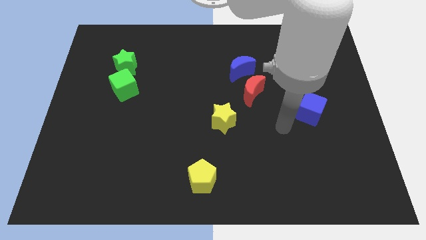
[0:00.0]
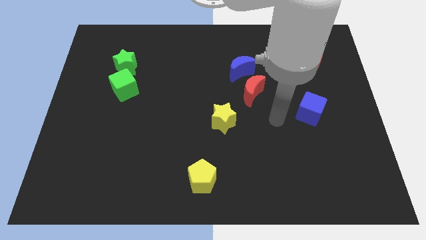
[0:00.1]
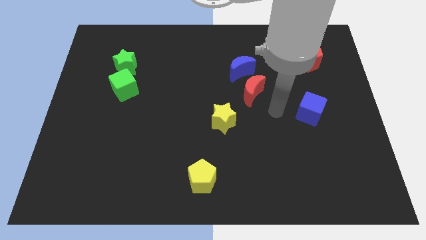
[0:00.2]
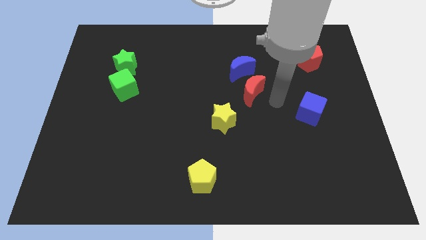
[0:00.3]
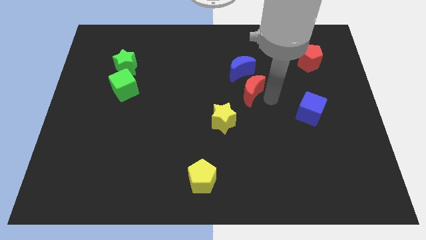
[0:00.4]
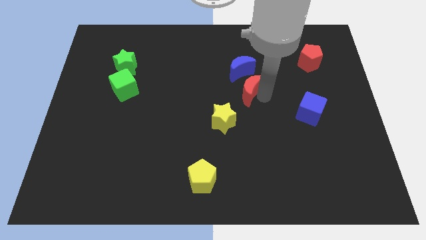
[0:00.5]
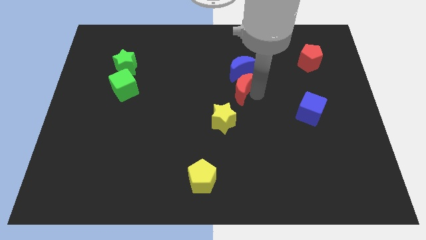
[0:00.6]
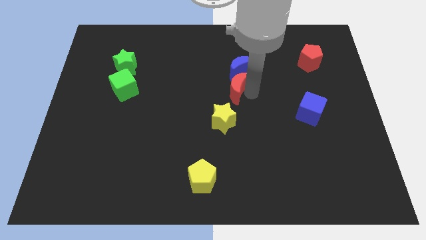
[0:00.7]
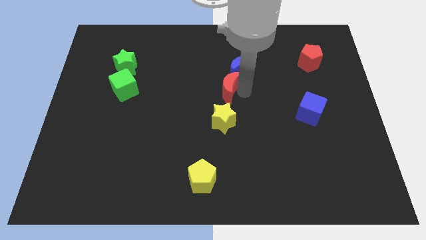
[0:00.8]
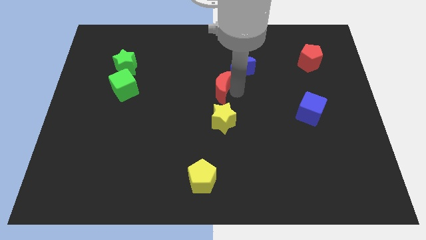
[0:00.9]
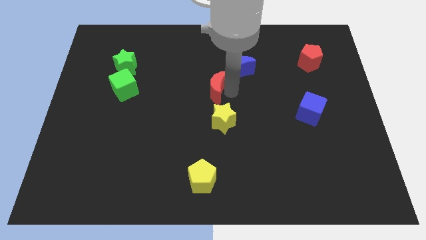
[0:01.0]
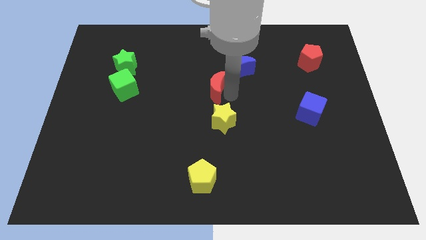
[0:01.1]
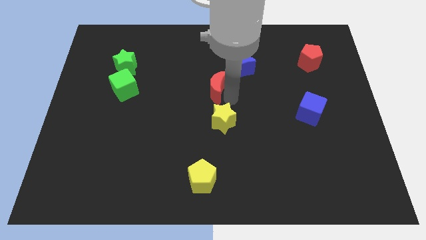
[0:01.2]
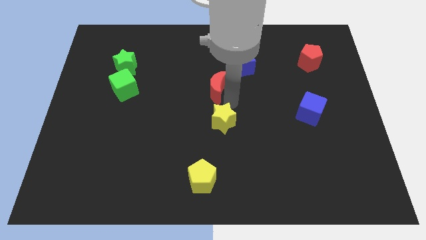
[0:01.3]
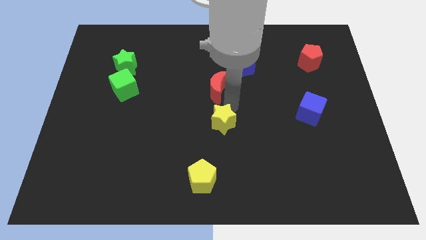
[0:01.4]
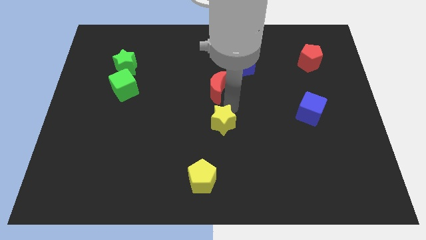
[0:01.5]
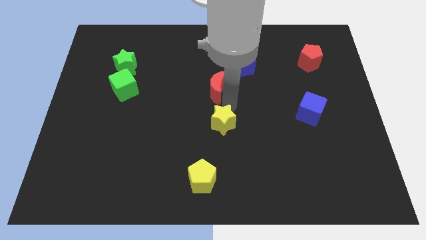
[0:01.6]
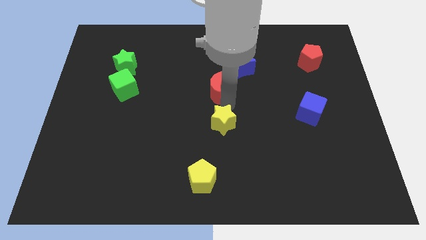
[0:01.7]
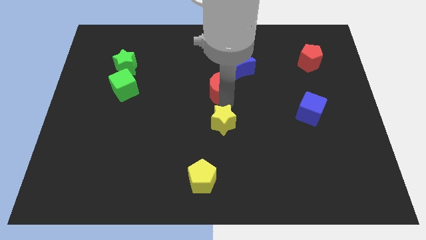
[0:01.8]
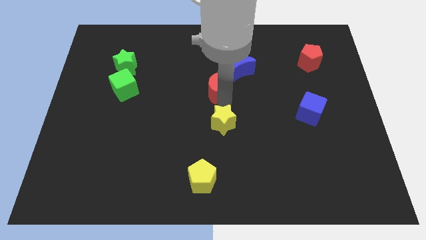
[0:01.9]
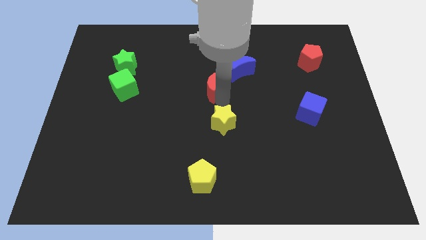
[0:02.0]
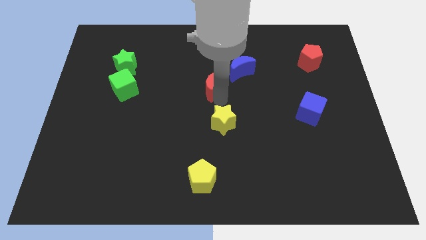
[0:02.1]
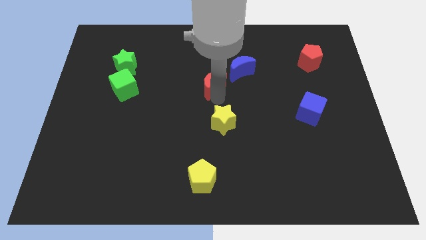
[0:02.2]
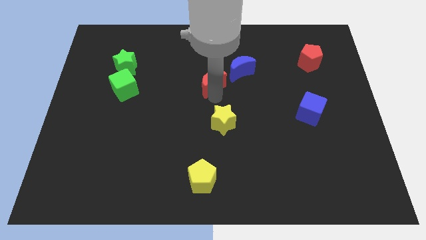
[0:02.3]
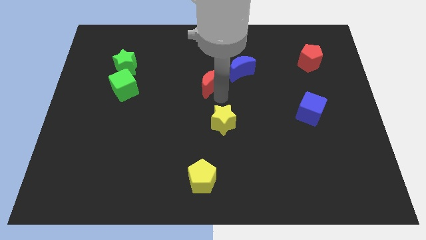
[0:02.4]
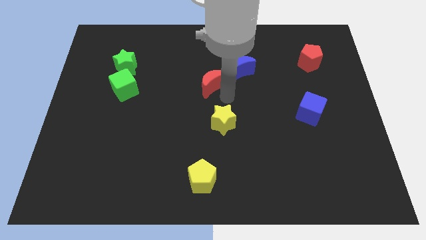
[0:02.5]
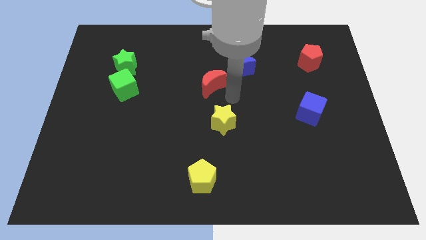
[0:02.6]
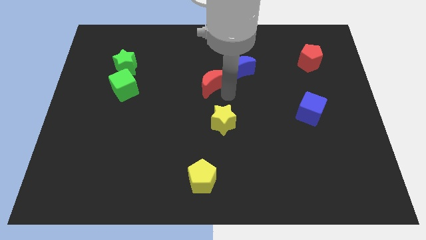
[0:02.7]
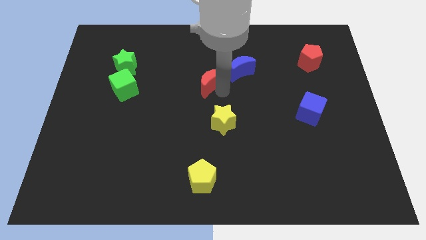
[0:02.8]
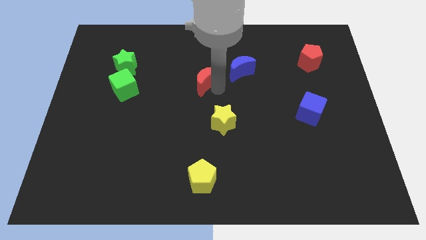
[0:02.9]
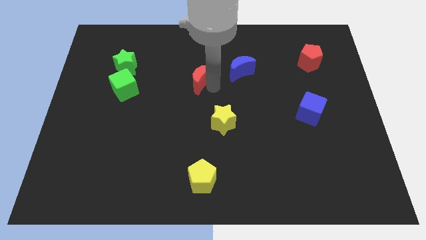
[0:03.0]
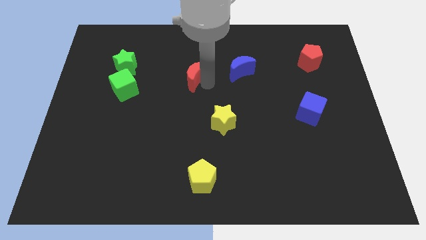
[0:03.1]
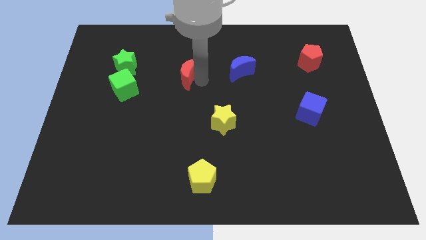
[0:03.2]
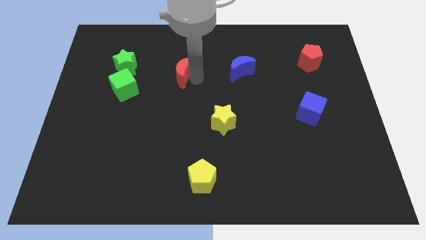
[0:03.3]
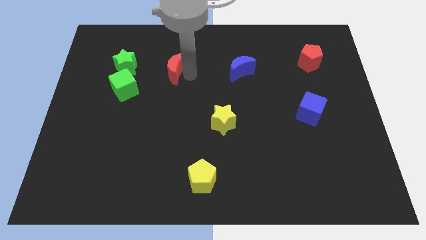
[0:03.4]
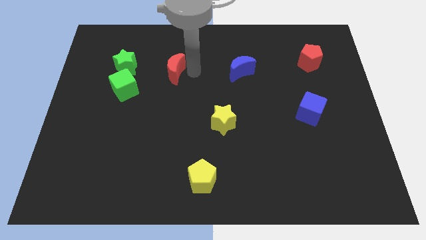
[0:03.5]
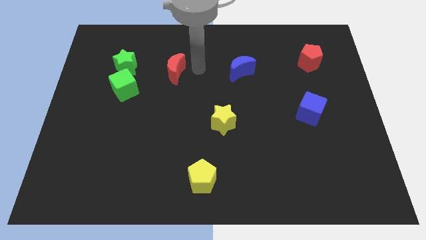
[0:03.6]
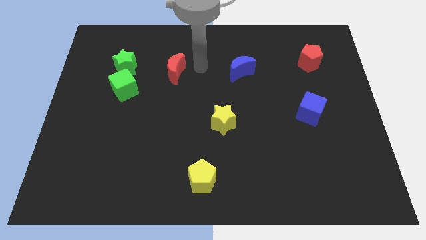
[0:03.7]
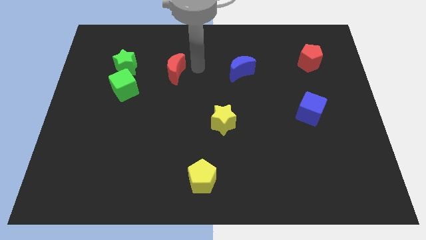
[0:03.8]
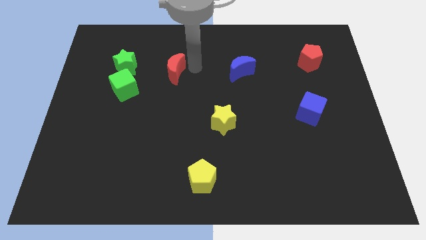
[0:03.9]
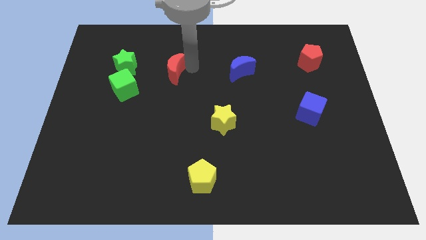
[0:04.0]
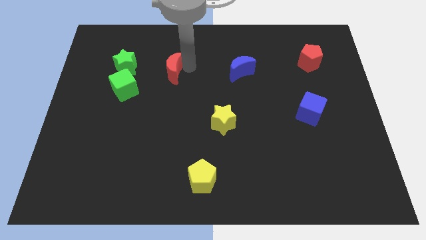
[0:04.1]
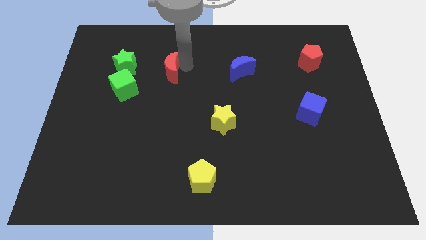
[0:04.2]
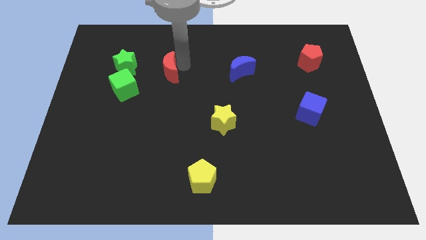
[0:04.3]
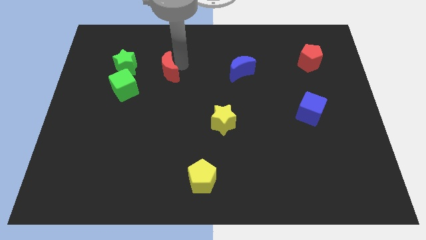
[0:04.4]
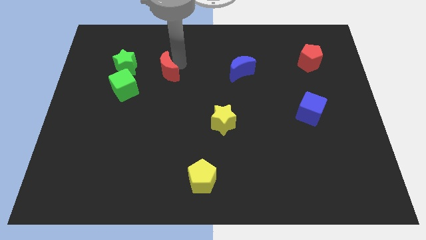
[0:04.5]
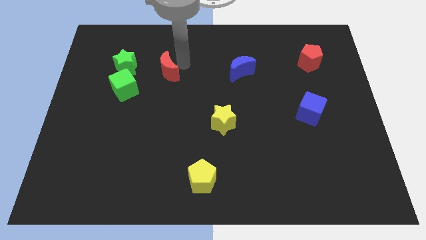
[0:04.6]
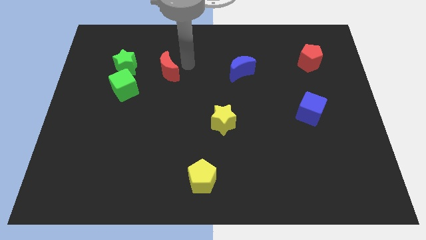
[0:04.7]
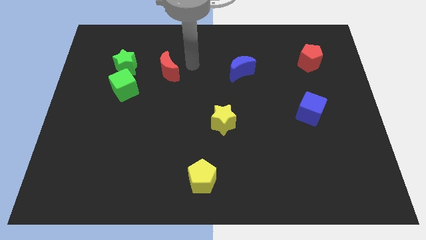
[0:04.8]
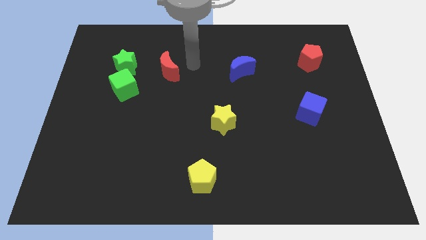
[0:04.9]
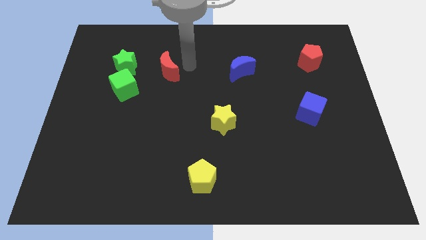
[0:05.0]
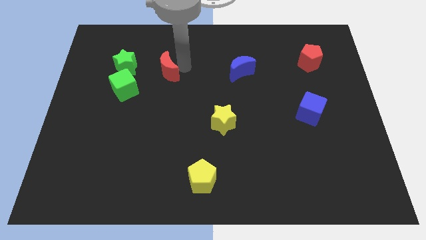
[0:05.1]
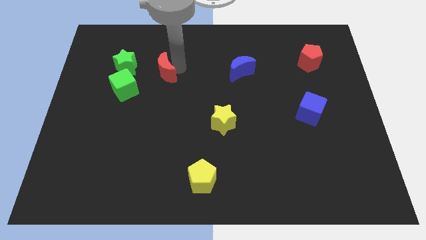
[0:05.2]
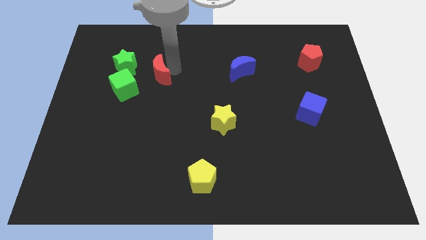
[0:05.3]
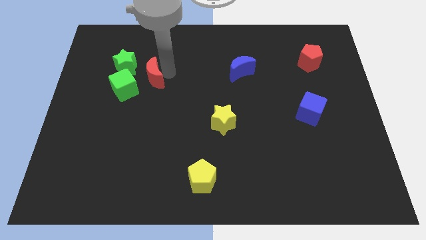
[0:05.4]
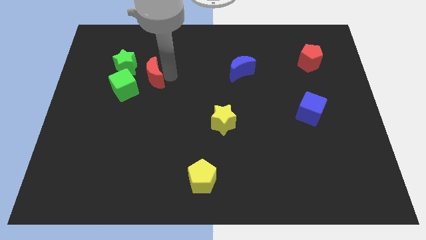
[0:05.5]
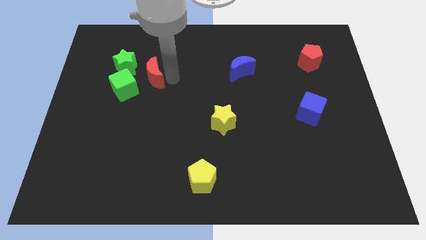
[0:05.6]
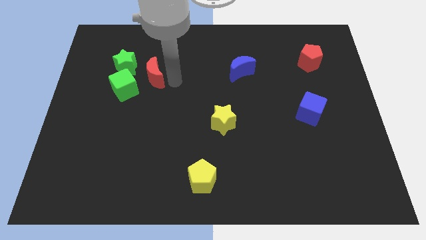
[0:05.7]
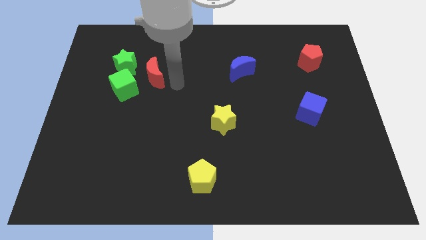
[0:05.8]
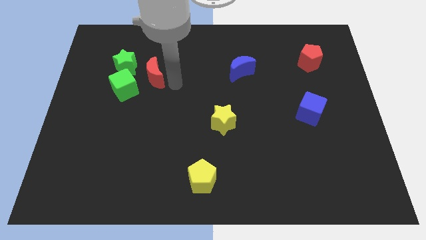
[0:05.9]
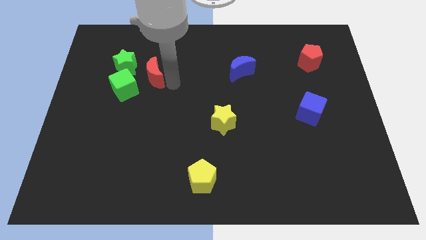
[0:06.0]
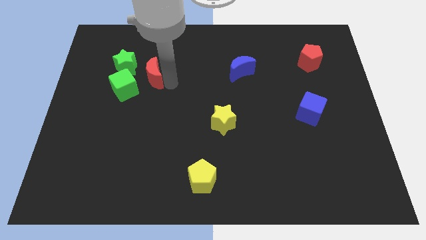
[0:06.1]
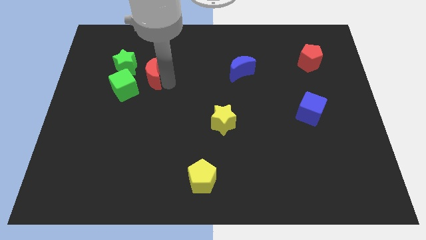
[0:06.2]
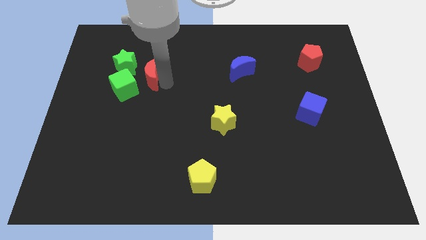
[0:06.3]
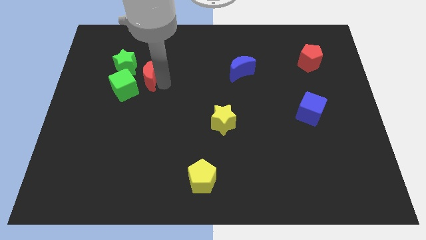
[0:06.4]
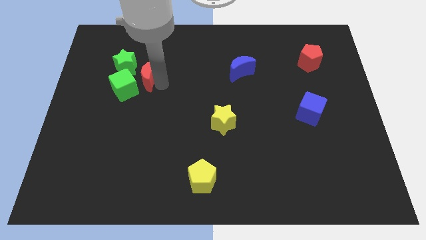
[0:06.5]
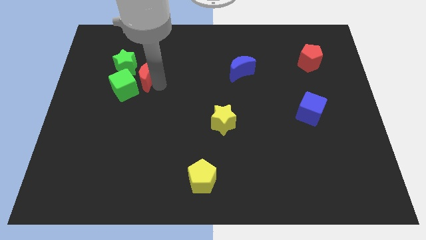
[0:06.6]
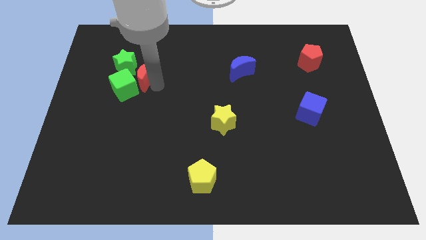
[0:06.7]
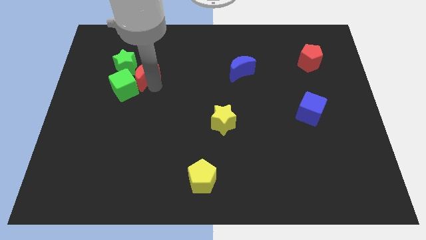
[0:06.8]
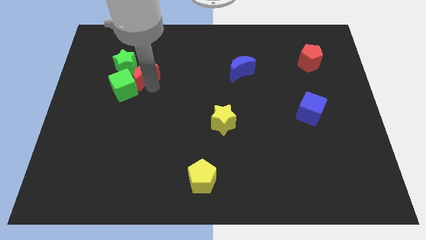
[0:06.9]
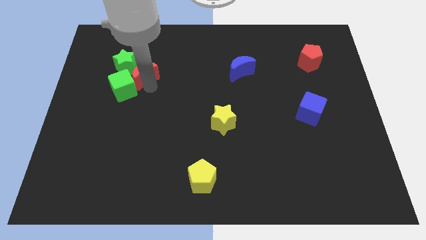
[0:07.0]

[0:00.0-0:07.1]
move the red moon next to the green star

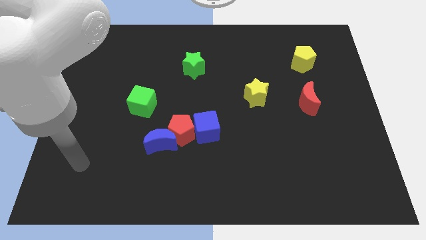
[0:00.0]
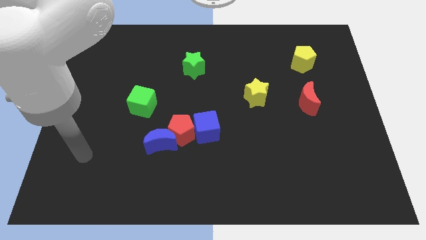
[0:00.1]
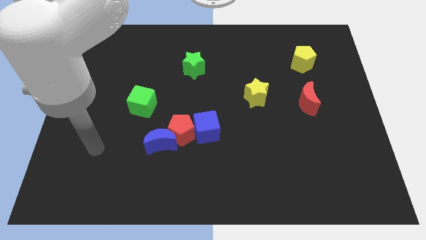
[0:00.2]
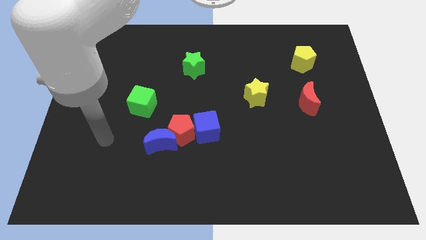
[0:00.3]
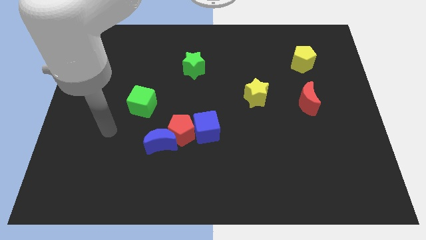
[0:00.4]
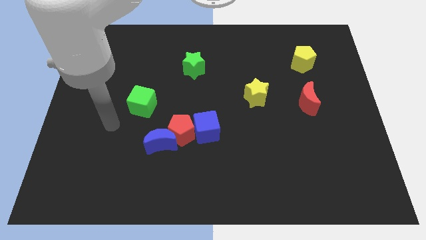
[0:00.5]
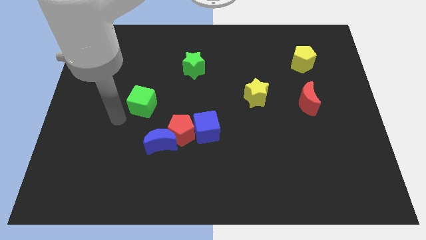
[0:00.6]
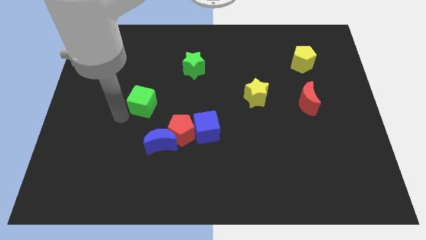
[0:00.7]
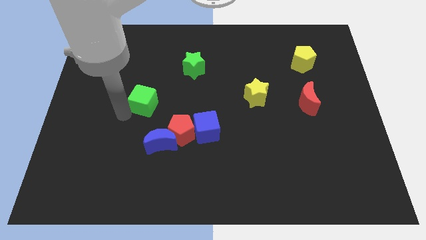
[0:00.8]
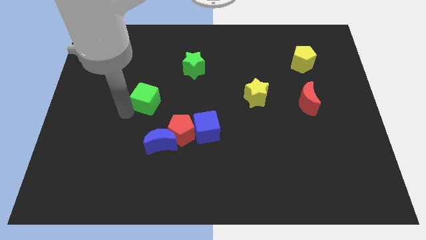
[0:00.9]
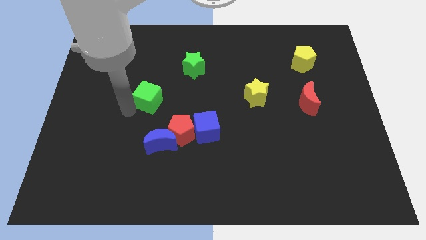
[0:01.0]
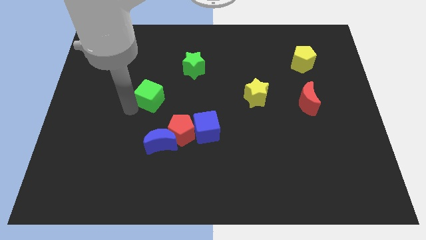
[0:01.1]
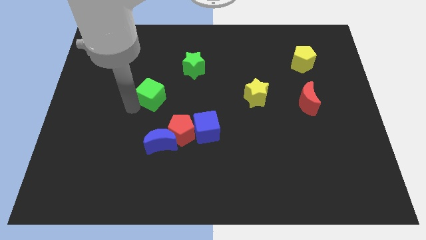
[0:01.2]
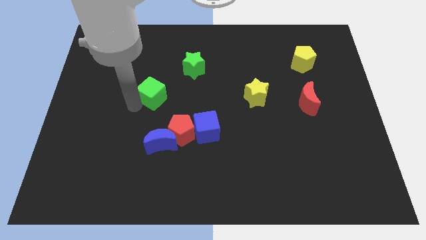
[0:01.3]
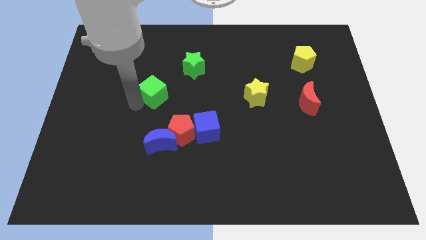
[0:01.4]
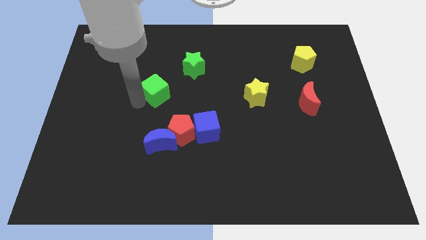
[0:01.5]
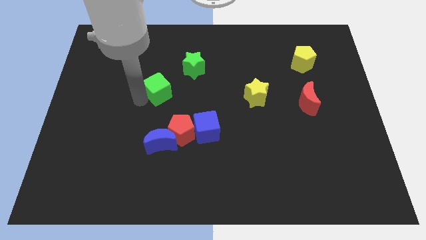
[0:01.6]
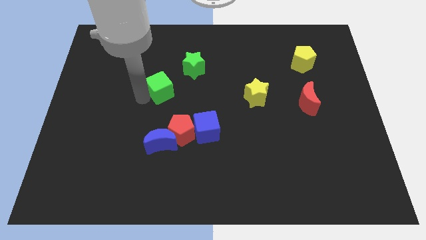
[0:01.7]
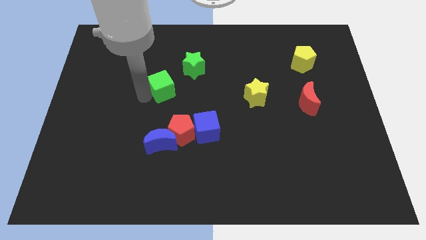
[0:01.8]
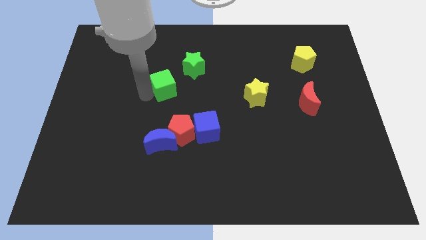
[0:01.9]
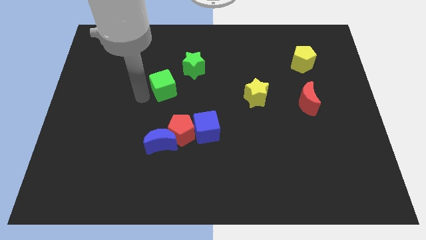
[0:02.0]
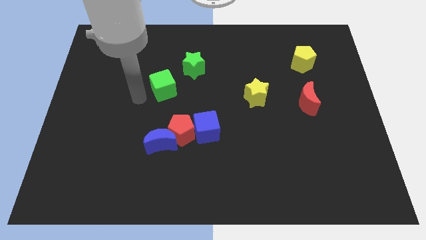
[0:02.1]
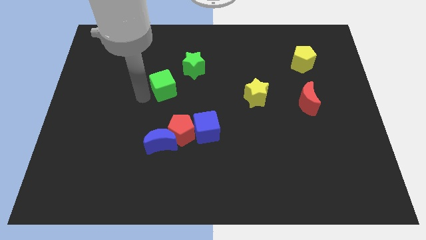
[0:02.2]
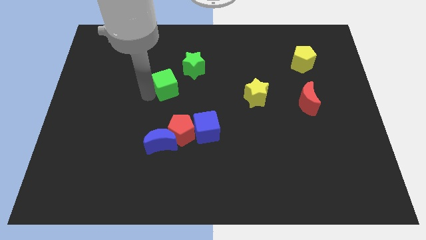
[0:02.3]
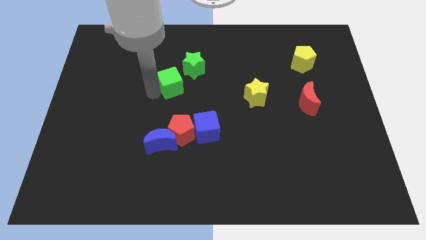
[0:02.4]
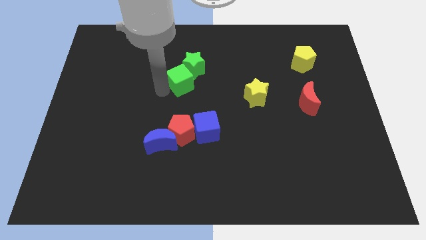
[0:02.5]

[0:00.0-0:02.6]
put the green cube towards the green star
